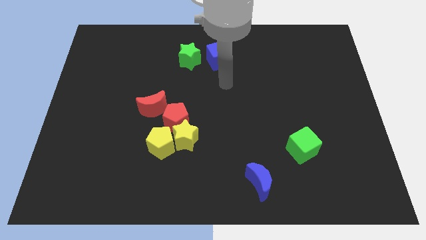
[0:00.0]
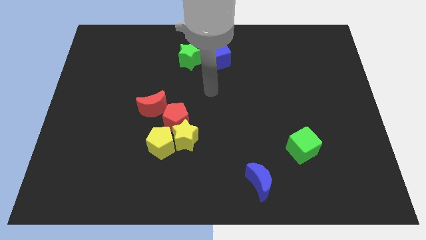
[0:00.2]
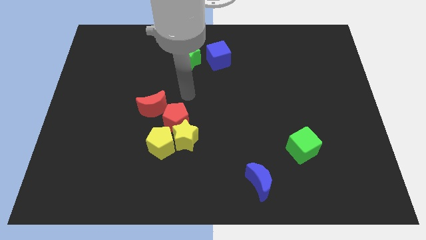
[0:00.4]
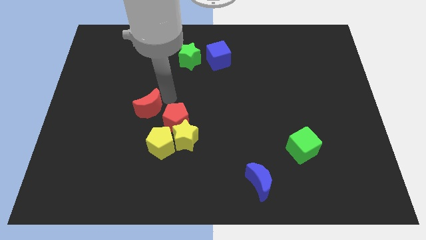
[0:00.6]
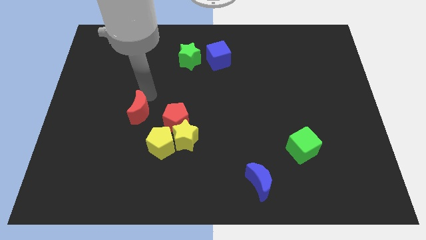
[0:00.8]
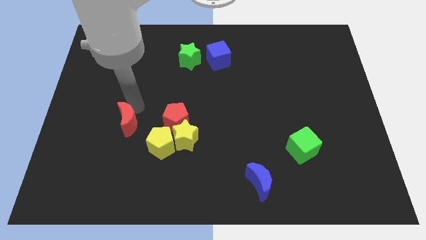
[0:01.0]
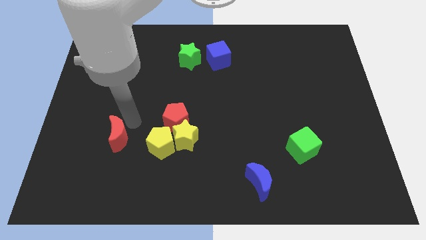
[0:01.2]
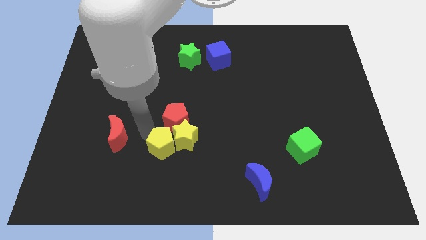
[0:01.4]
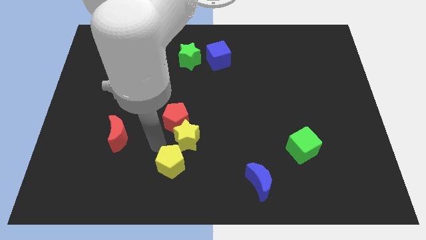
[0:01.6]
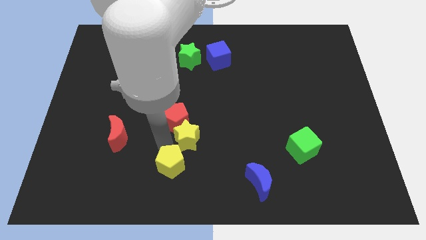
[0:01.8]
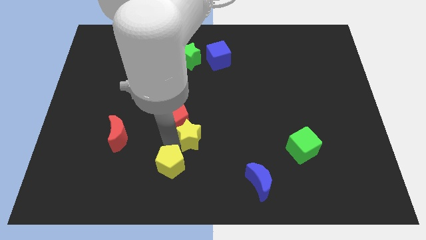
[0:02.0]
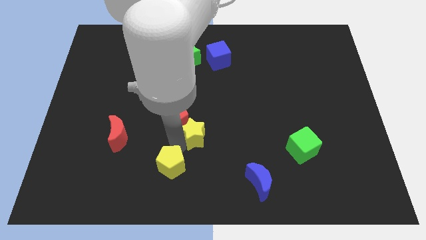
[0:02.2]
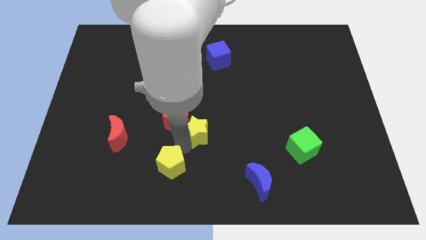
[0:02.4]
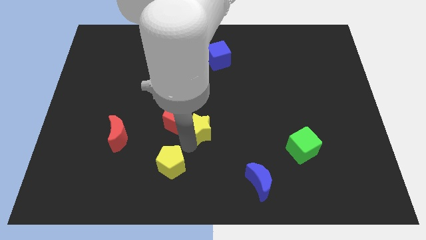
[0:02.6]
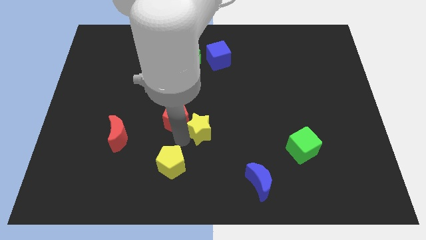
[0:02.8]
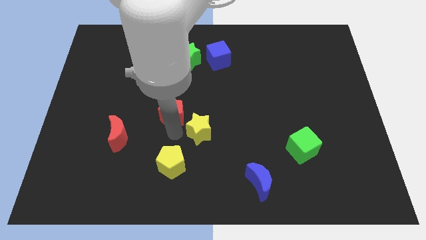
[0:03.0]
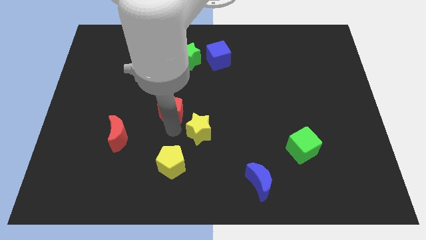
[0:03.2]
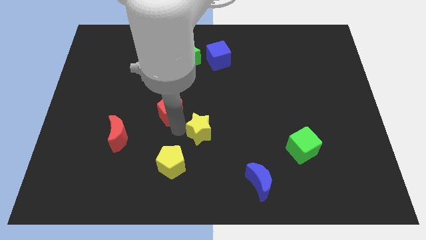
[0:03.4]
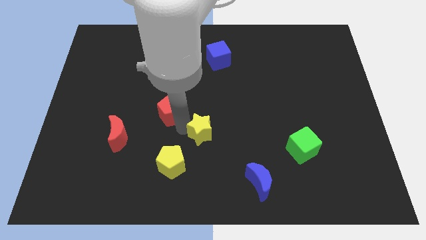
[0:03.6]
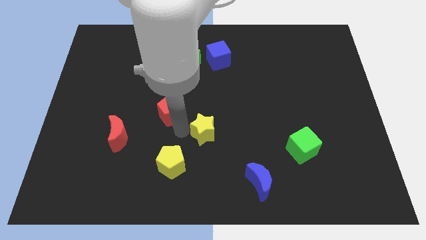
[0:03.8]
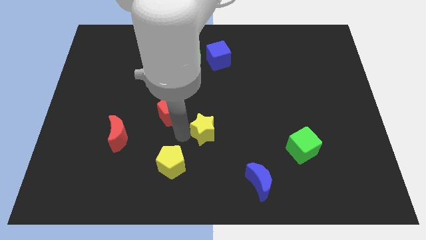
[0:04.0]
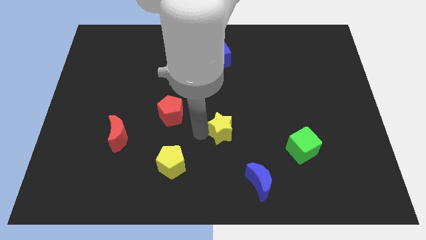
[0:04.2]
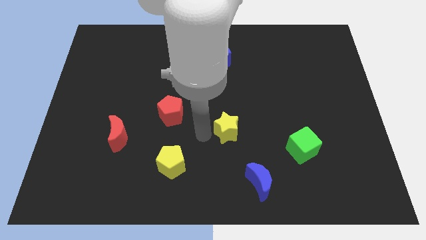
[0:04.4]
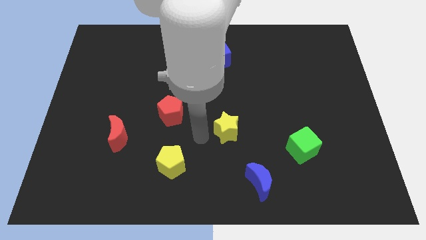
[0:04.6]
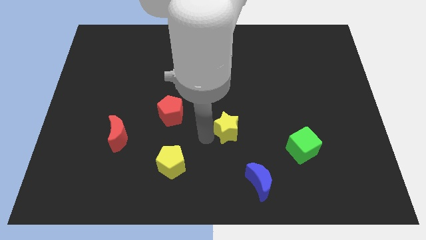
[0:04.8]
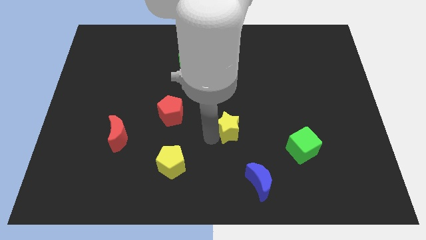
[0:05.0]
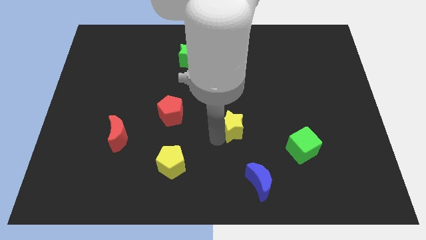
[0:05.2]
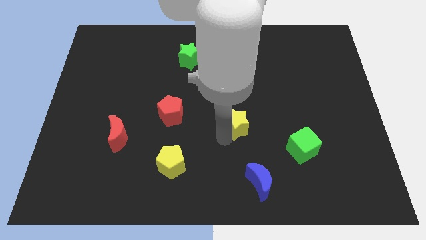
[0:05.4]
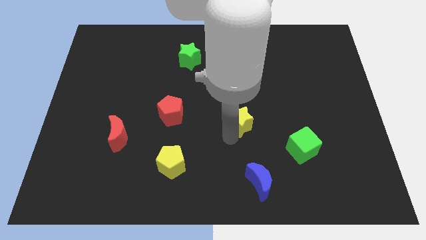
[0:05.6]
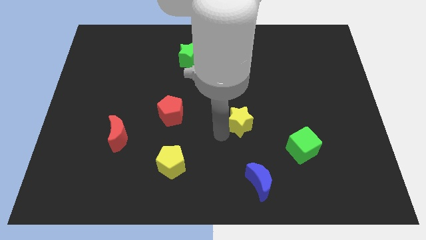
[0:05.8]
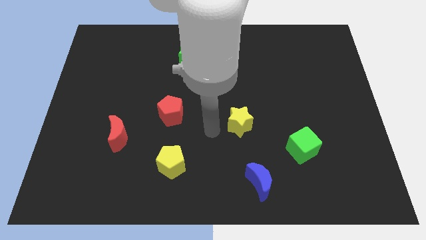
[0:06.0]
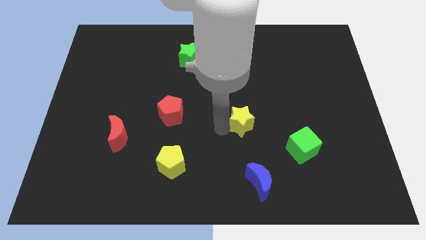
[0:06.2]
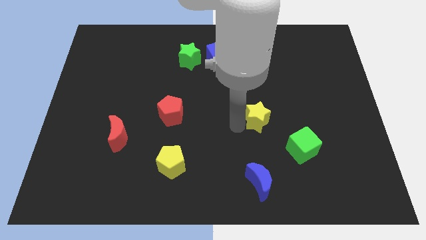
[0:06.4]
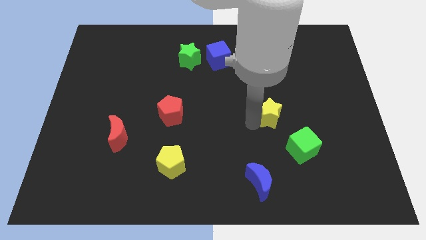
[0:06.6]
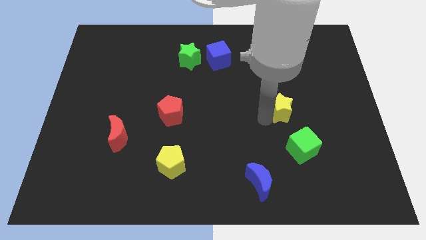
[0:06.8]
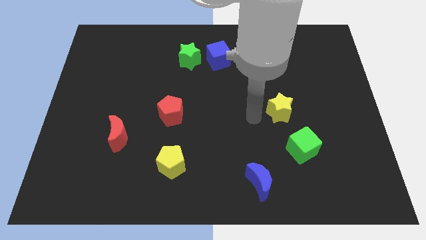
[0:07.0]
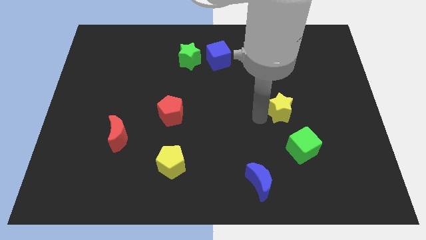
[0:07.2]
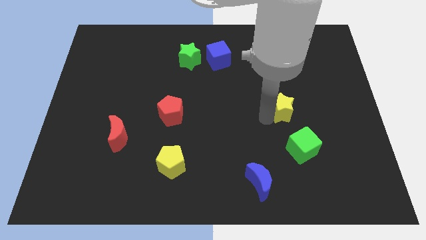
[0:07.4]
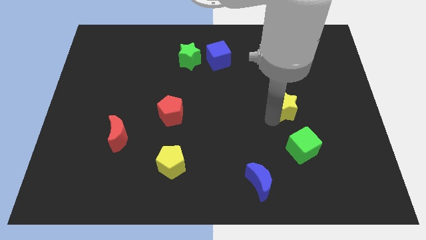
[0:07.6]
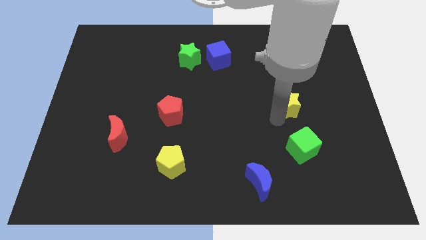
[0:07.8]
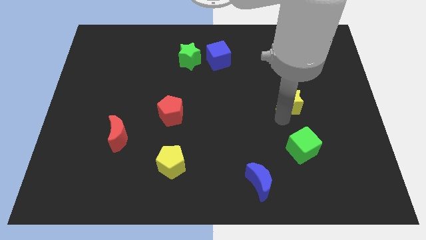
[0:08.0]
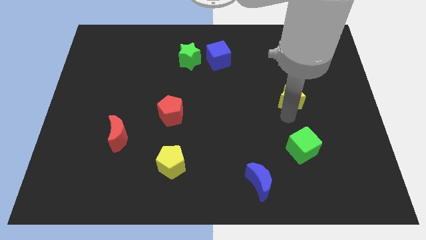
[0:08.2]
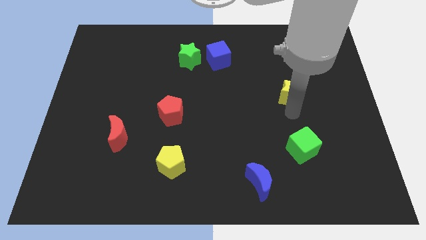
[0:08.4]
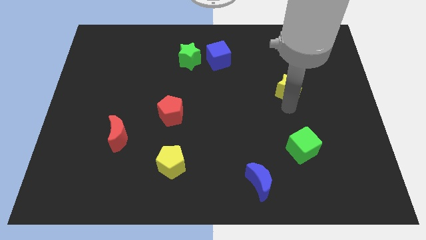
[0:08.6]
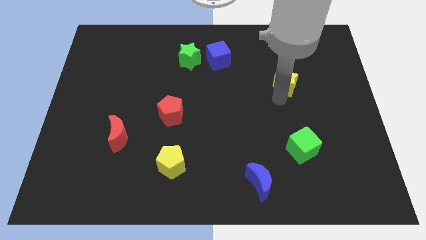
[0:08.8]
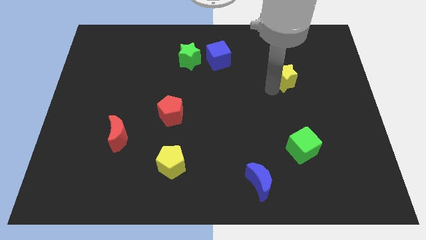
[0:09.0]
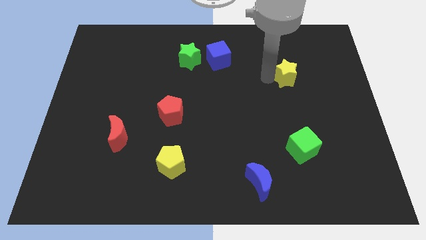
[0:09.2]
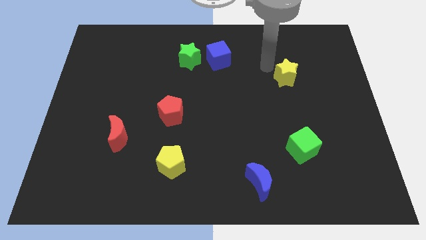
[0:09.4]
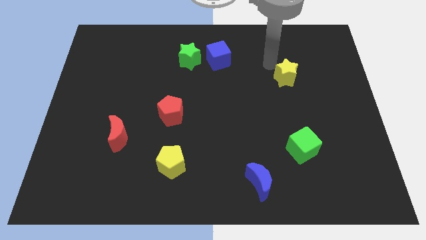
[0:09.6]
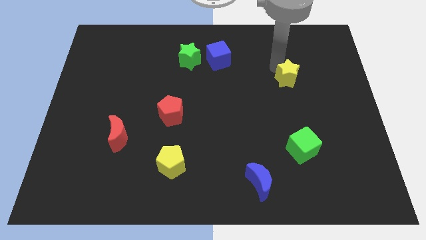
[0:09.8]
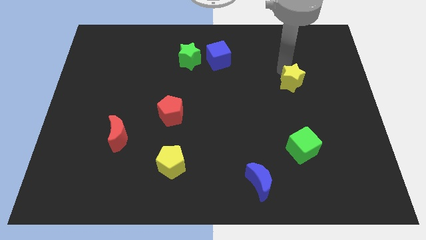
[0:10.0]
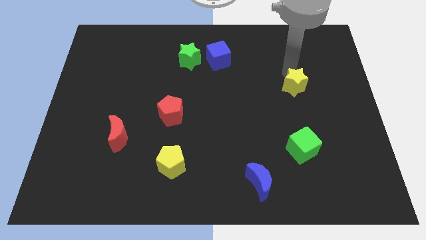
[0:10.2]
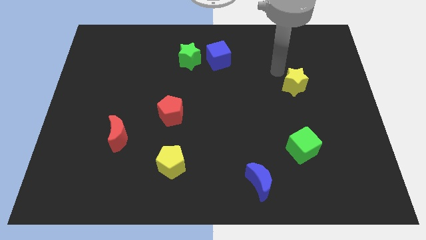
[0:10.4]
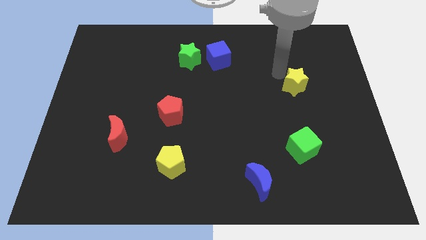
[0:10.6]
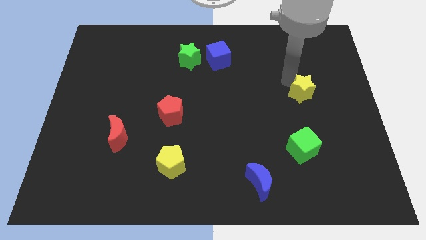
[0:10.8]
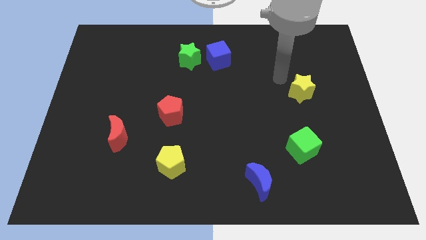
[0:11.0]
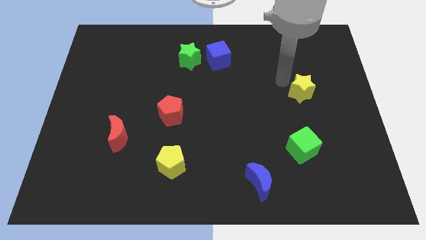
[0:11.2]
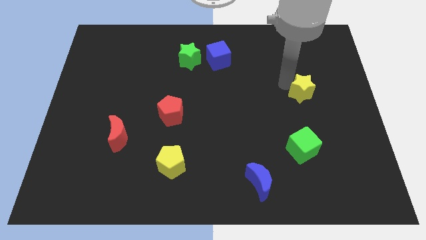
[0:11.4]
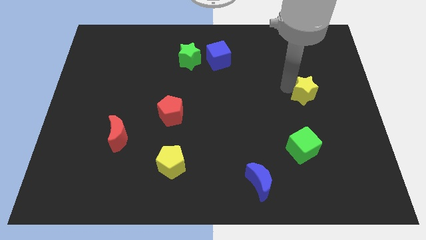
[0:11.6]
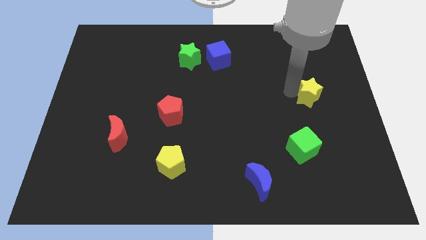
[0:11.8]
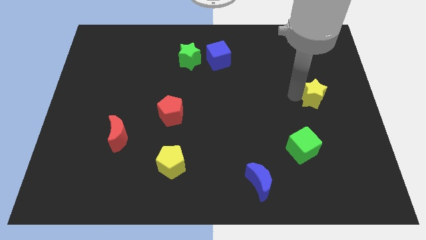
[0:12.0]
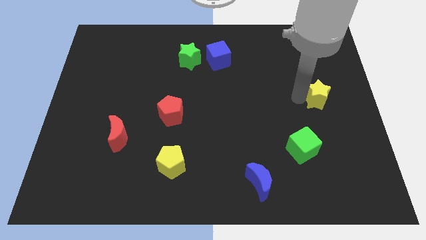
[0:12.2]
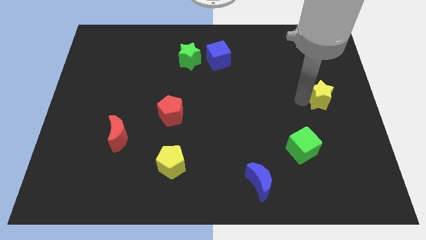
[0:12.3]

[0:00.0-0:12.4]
push the yellow star to the center right
